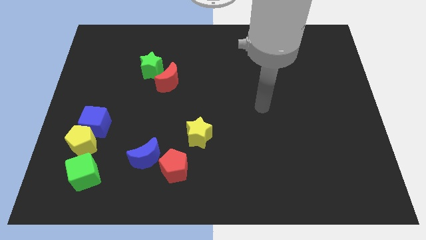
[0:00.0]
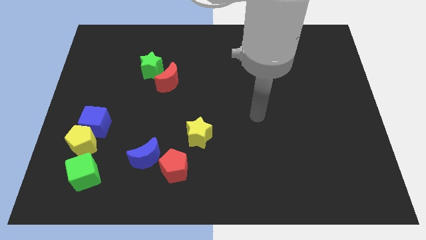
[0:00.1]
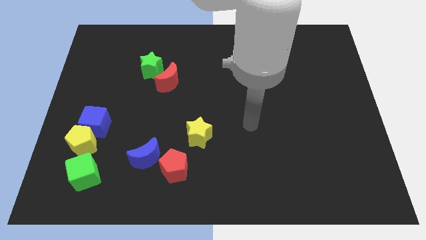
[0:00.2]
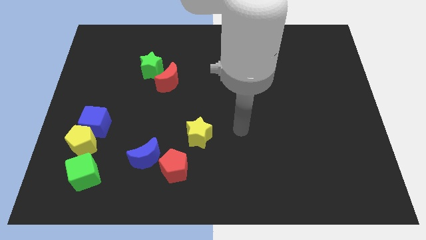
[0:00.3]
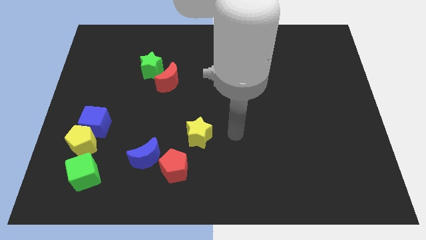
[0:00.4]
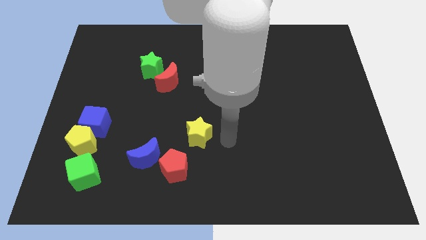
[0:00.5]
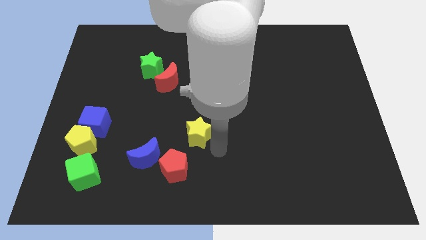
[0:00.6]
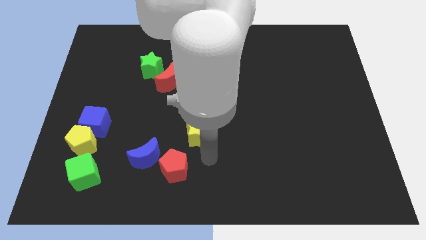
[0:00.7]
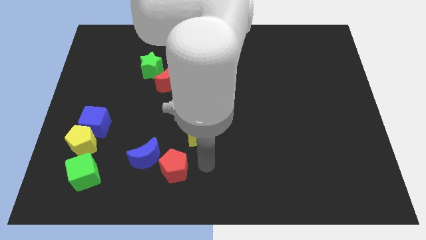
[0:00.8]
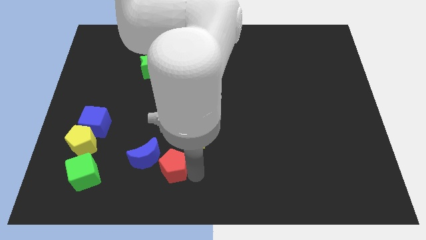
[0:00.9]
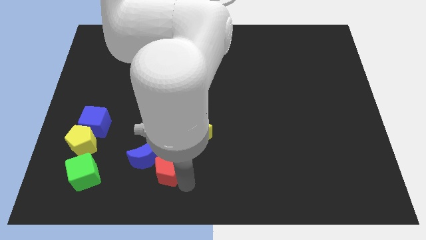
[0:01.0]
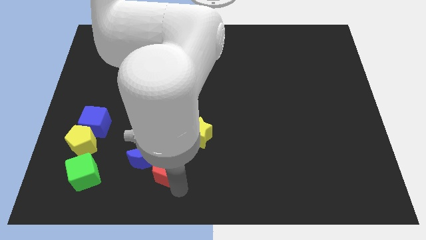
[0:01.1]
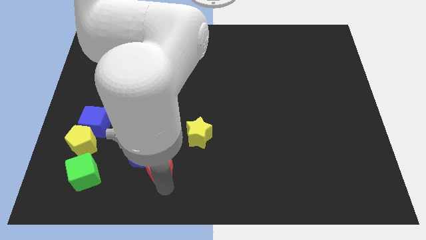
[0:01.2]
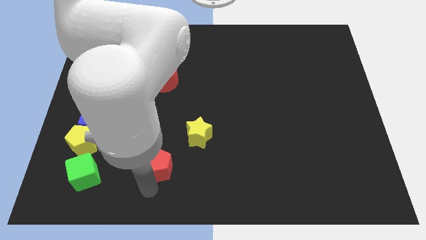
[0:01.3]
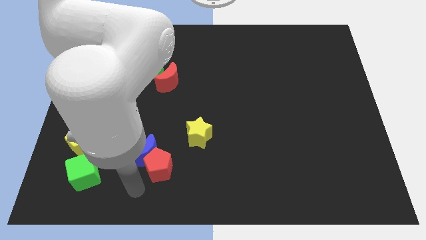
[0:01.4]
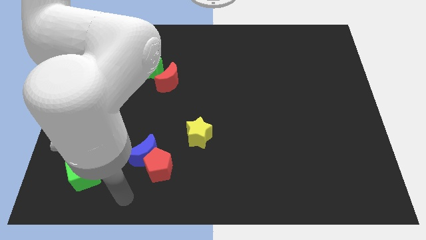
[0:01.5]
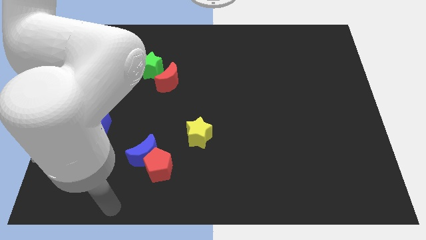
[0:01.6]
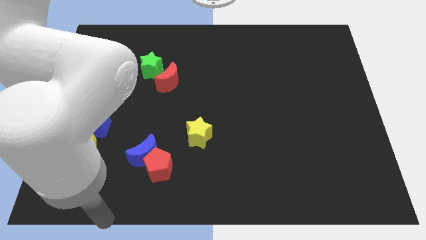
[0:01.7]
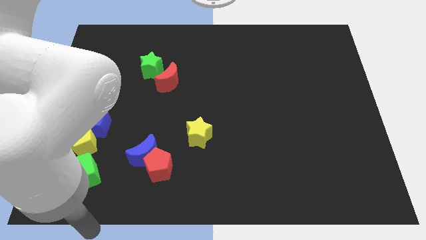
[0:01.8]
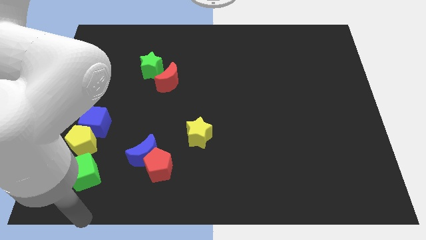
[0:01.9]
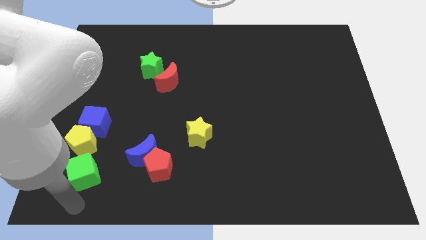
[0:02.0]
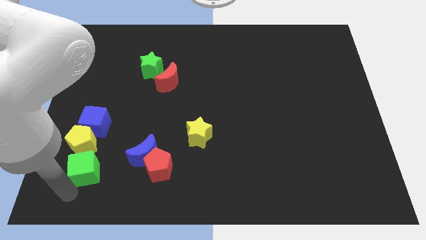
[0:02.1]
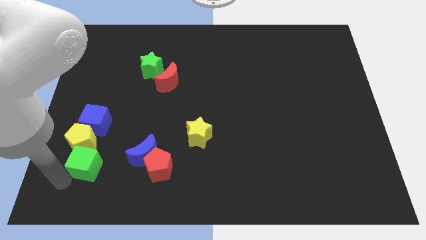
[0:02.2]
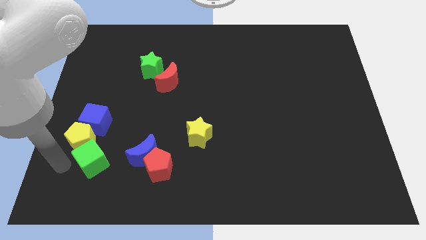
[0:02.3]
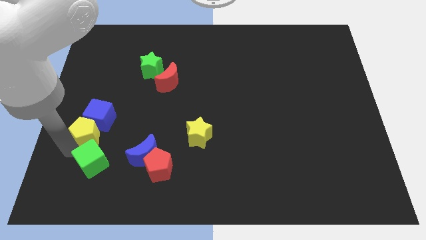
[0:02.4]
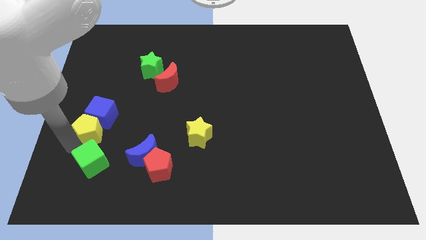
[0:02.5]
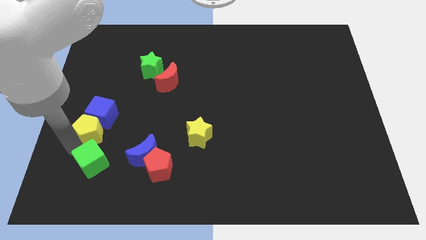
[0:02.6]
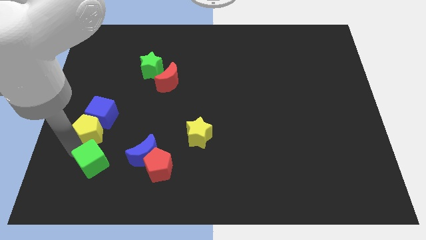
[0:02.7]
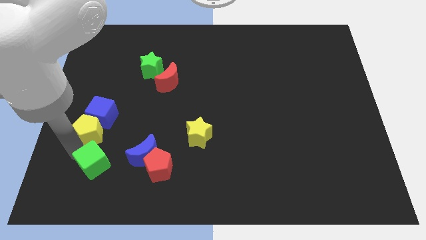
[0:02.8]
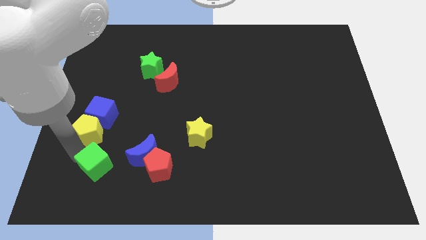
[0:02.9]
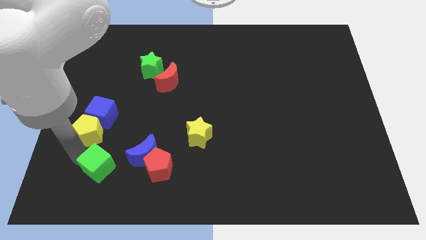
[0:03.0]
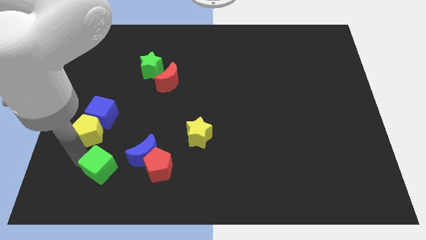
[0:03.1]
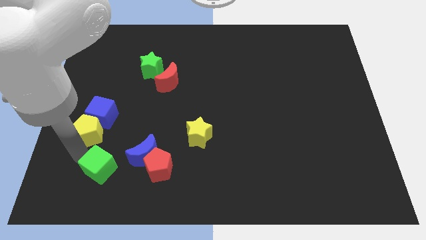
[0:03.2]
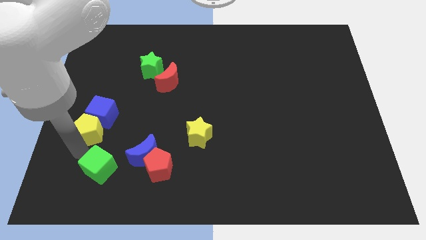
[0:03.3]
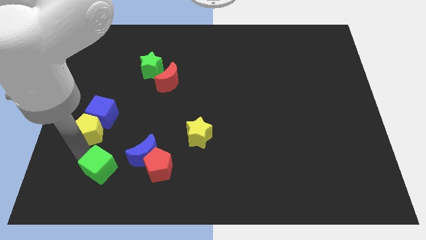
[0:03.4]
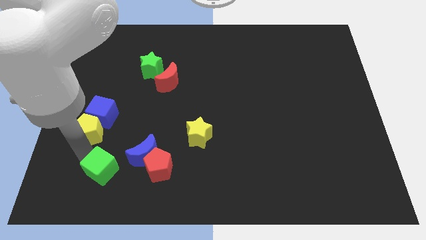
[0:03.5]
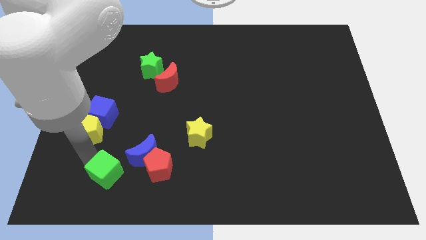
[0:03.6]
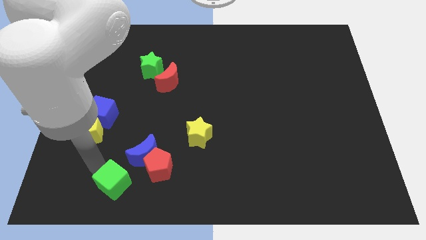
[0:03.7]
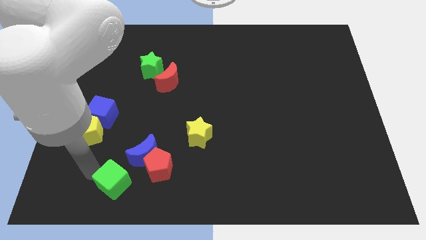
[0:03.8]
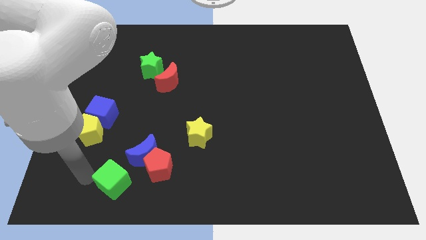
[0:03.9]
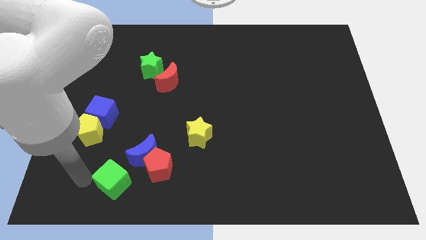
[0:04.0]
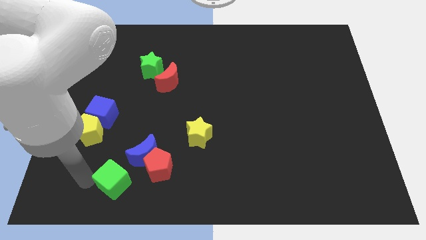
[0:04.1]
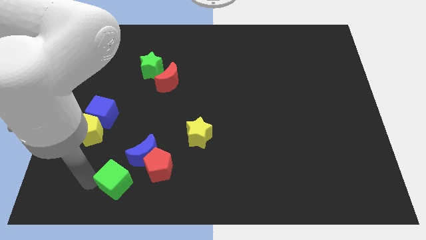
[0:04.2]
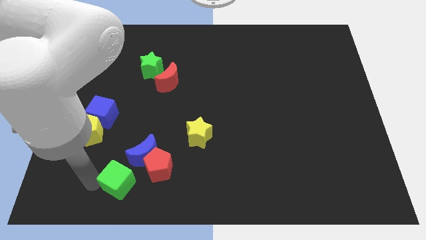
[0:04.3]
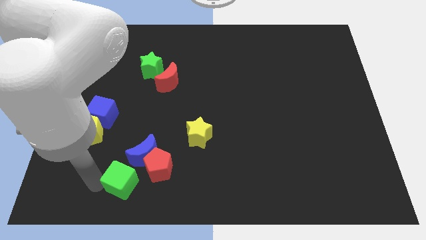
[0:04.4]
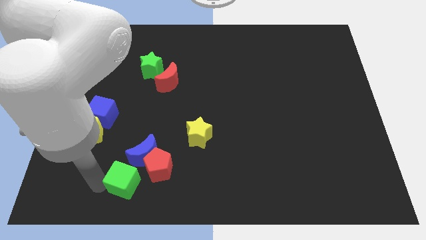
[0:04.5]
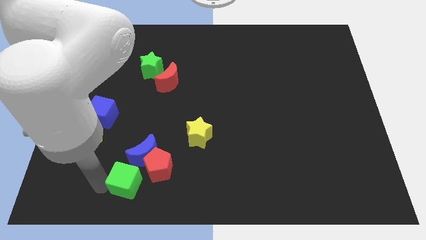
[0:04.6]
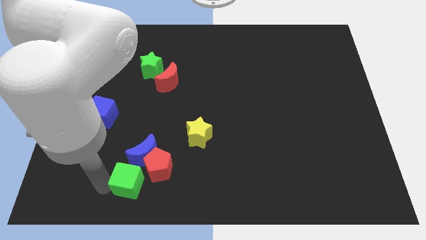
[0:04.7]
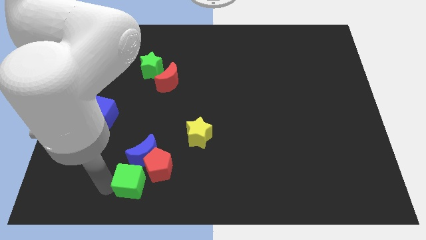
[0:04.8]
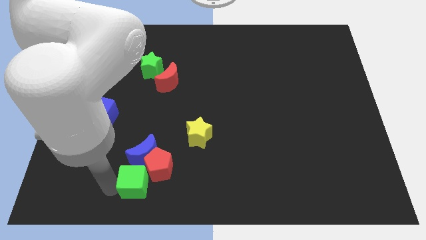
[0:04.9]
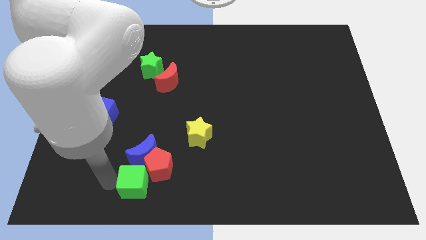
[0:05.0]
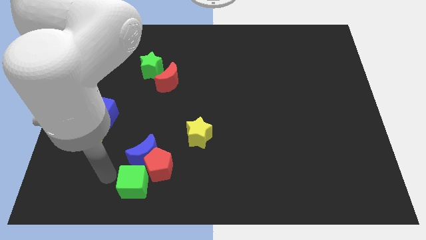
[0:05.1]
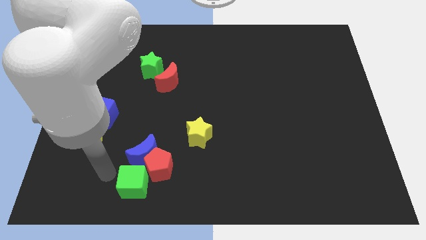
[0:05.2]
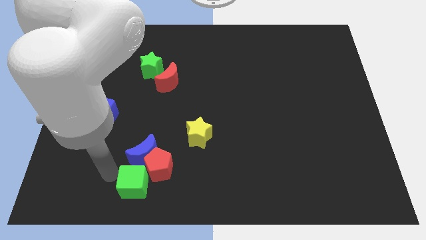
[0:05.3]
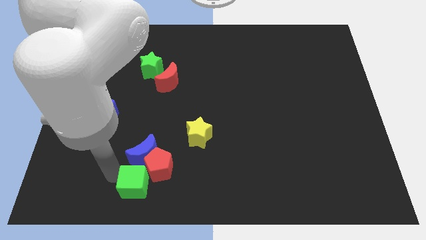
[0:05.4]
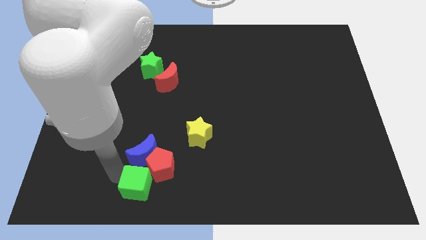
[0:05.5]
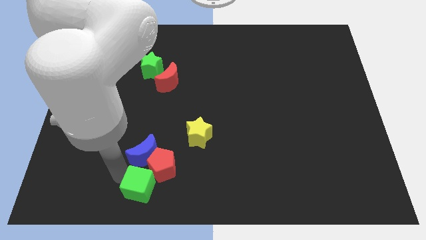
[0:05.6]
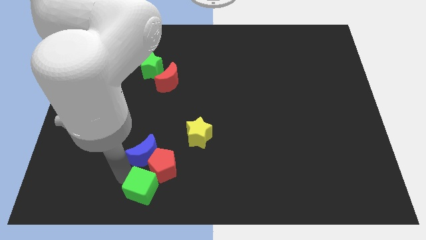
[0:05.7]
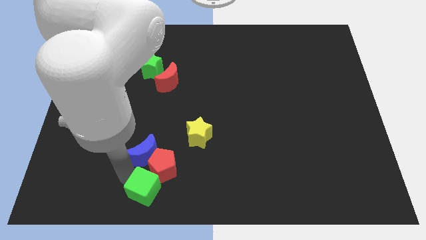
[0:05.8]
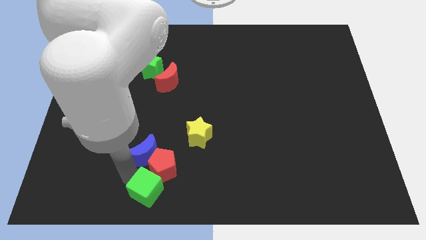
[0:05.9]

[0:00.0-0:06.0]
move the green cube to the bottom side

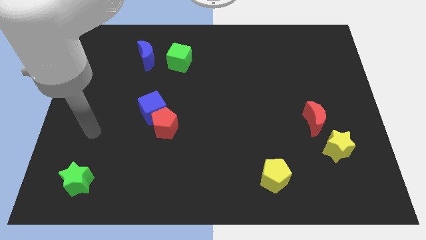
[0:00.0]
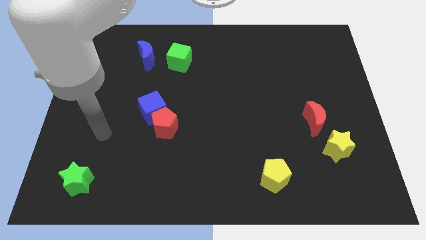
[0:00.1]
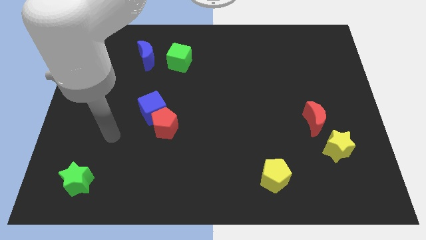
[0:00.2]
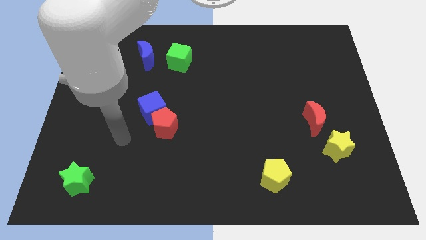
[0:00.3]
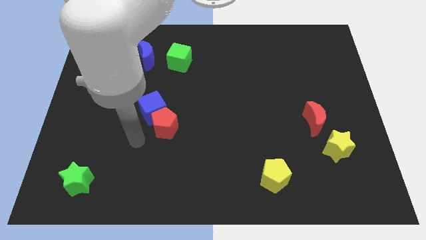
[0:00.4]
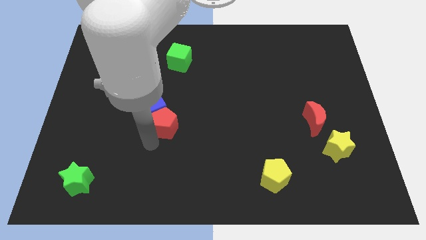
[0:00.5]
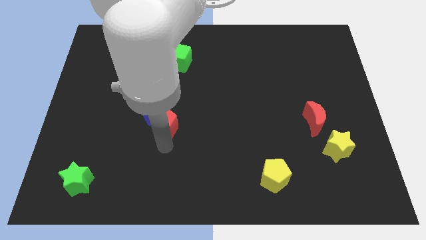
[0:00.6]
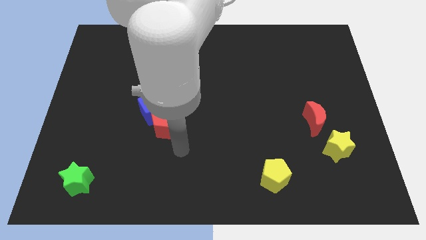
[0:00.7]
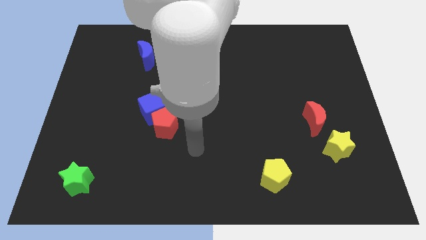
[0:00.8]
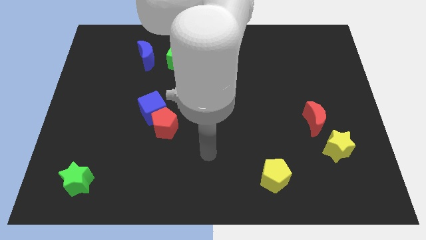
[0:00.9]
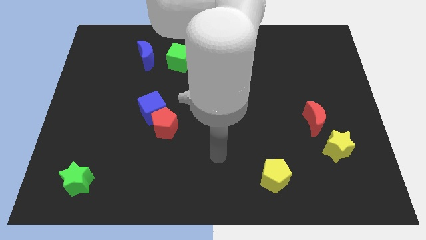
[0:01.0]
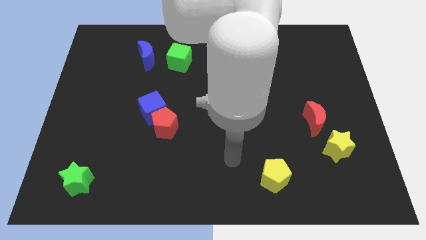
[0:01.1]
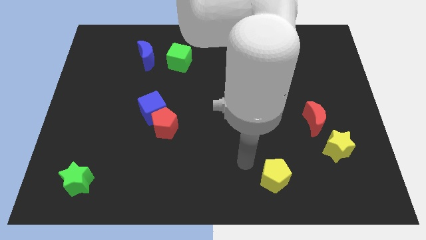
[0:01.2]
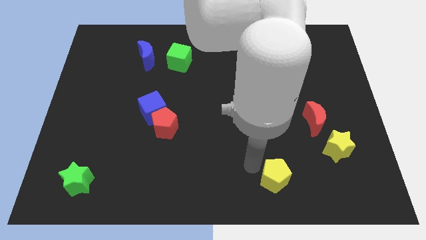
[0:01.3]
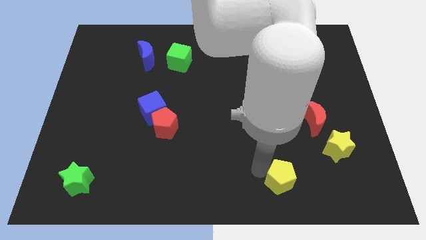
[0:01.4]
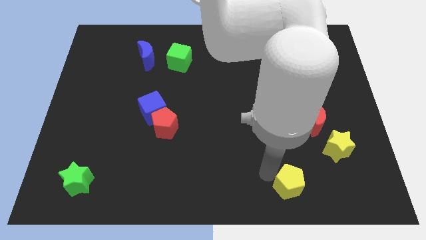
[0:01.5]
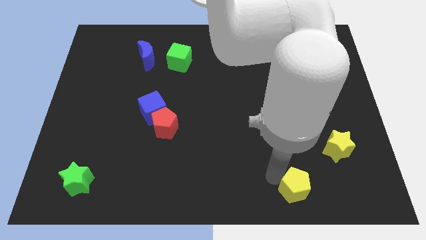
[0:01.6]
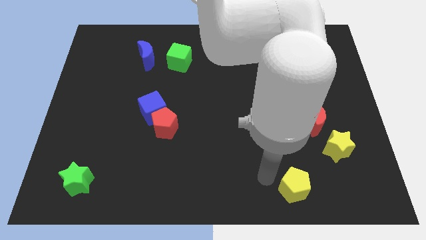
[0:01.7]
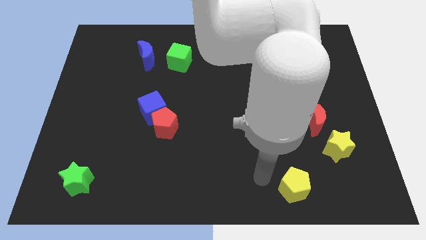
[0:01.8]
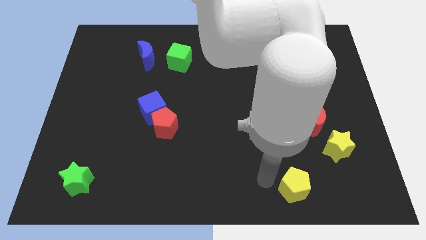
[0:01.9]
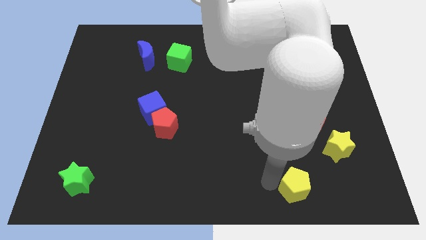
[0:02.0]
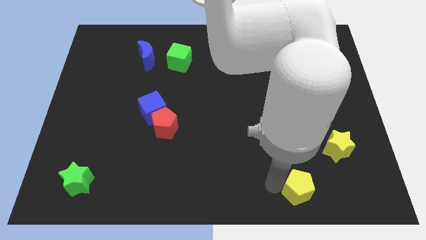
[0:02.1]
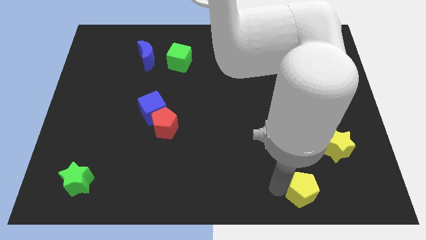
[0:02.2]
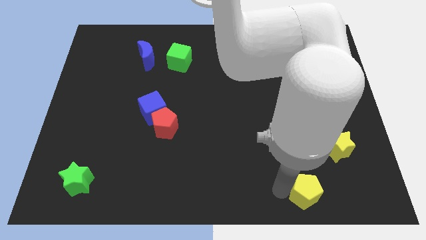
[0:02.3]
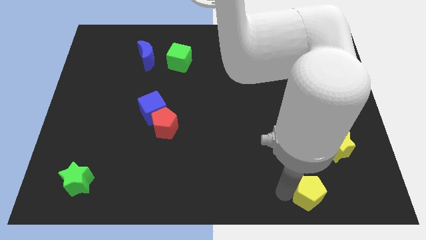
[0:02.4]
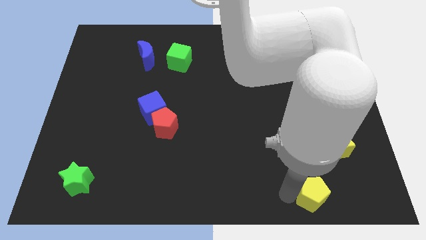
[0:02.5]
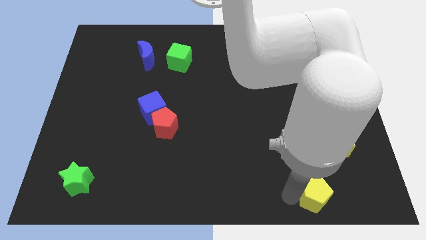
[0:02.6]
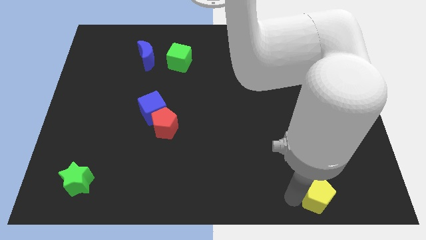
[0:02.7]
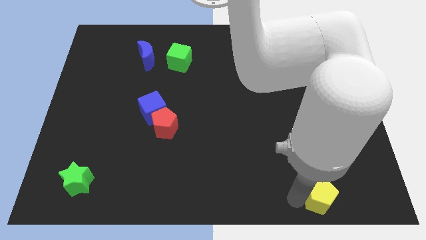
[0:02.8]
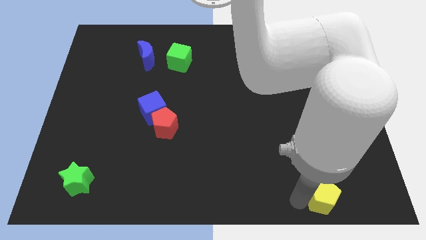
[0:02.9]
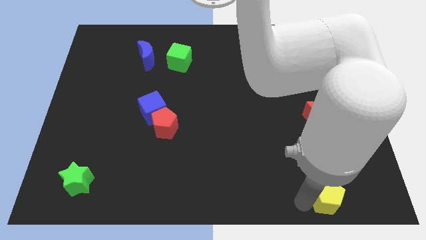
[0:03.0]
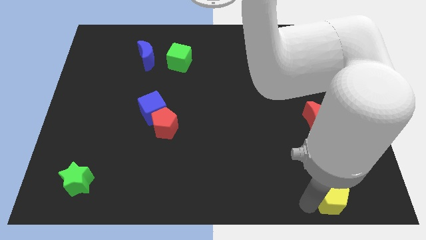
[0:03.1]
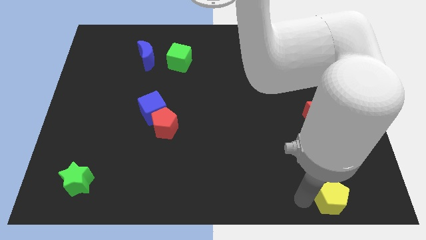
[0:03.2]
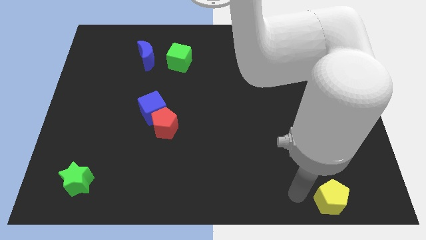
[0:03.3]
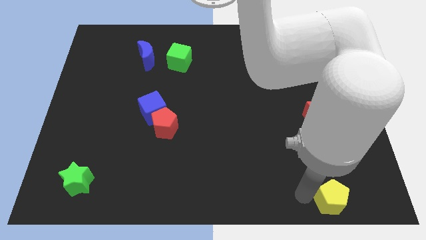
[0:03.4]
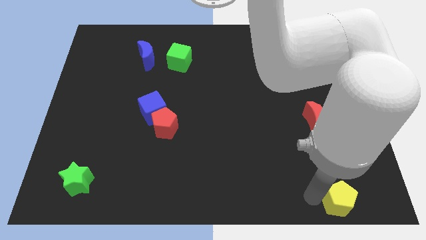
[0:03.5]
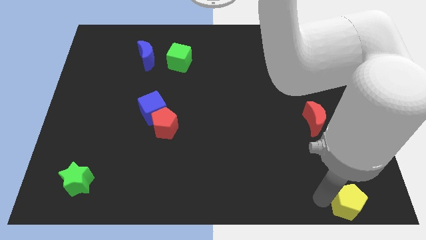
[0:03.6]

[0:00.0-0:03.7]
put the yellow pentagon to the bottom right of the board
